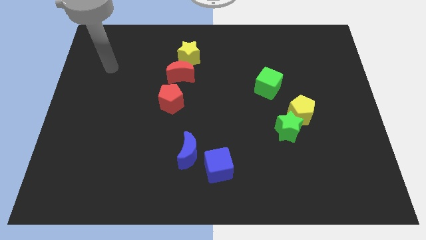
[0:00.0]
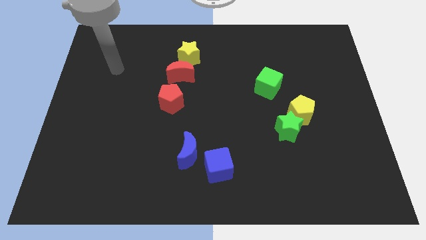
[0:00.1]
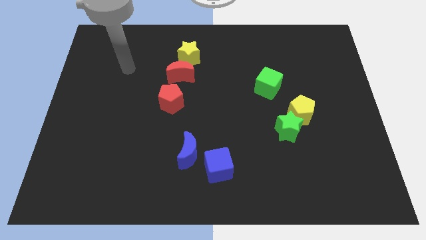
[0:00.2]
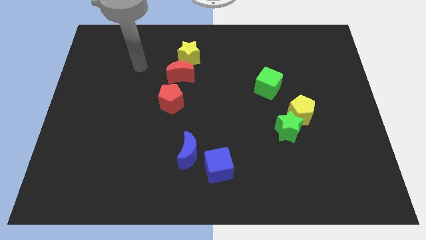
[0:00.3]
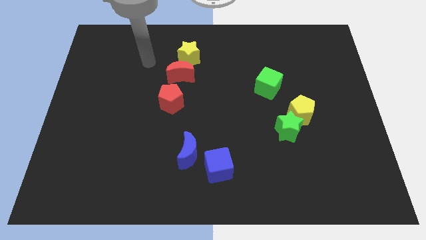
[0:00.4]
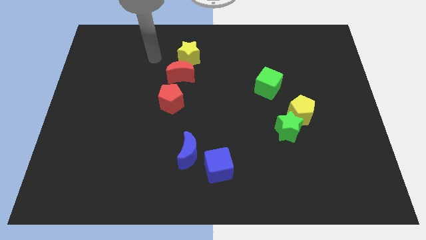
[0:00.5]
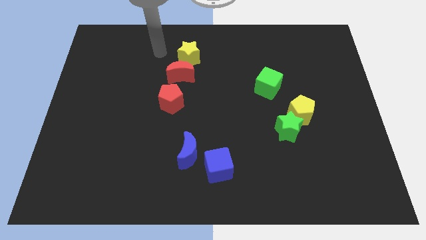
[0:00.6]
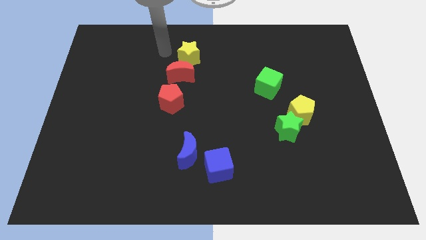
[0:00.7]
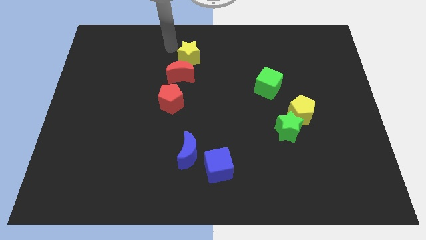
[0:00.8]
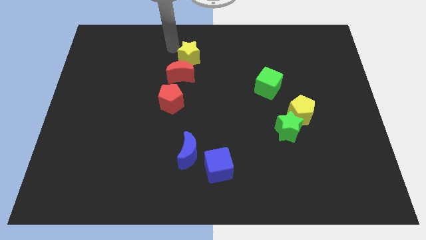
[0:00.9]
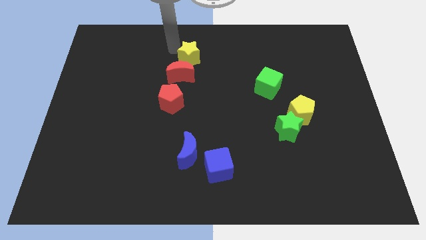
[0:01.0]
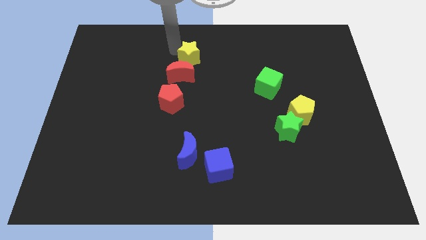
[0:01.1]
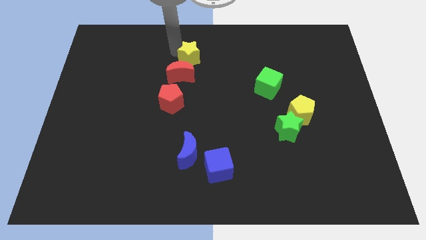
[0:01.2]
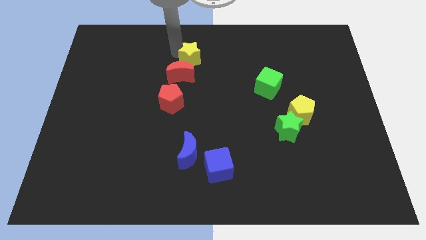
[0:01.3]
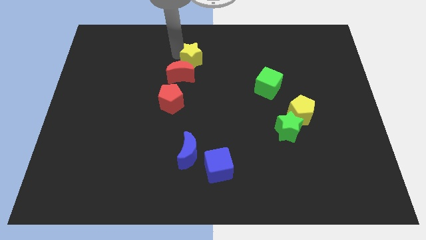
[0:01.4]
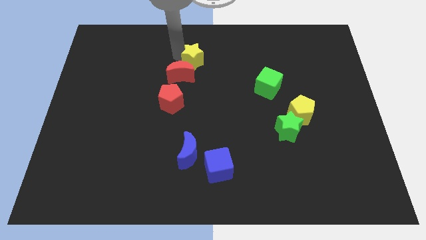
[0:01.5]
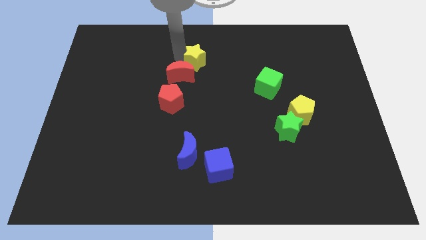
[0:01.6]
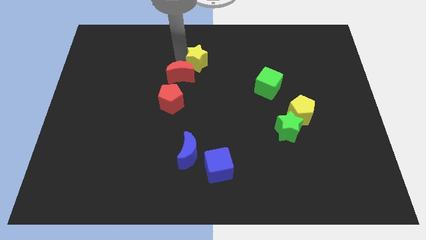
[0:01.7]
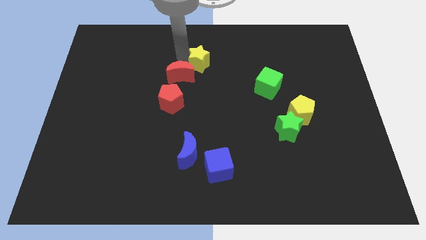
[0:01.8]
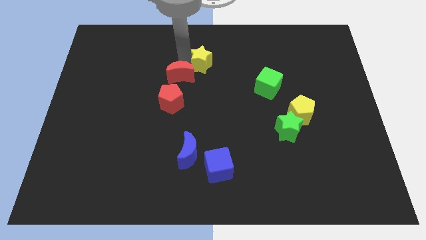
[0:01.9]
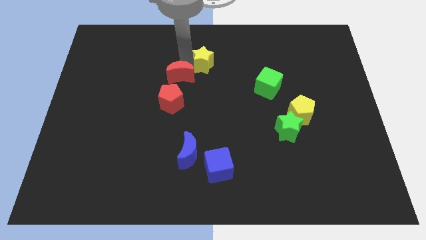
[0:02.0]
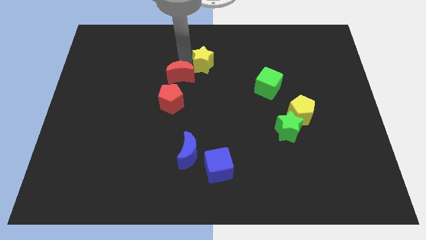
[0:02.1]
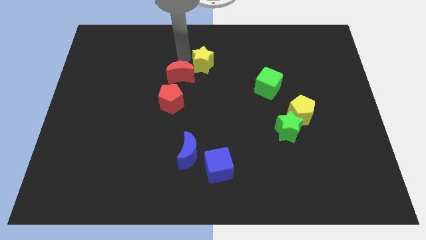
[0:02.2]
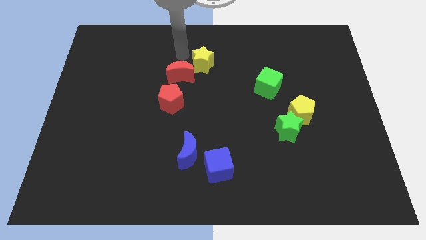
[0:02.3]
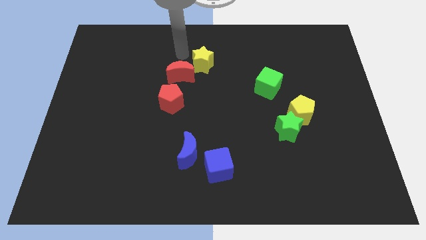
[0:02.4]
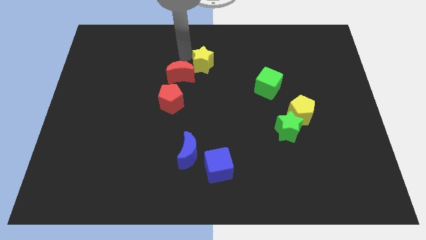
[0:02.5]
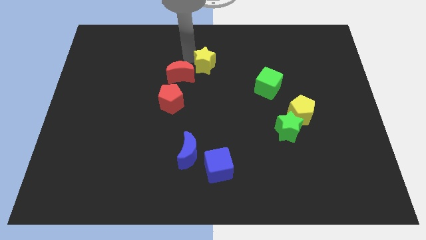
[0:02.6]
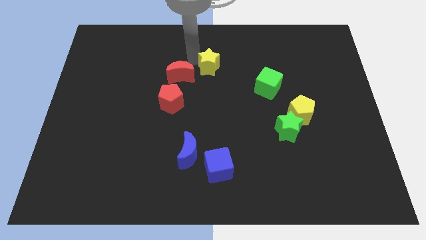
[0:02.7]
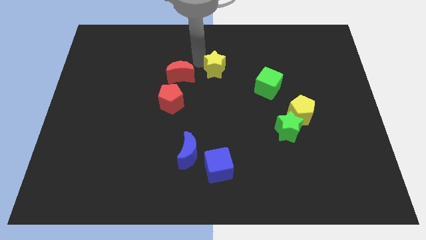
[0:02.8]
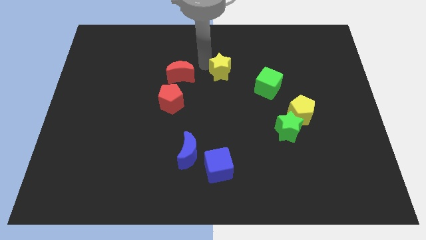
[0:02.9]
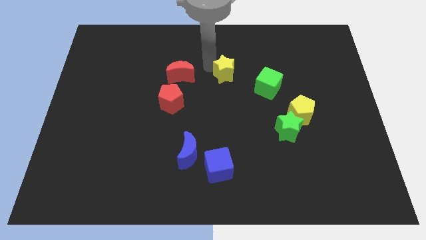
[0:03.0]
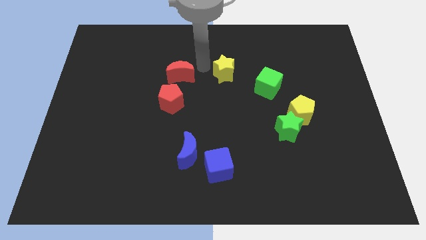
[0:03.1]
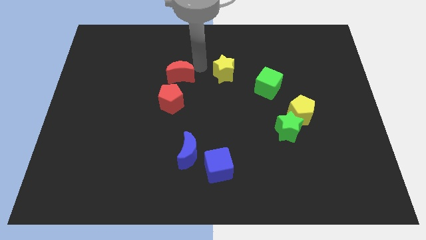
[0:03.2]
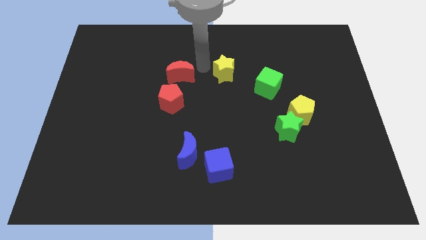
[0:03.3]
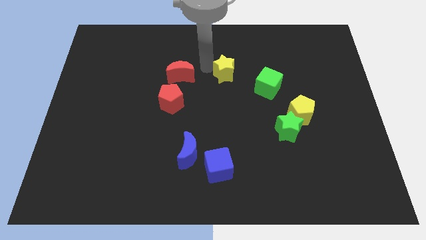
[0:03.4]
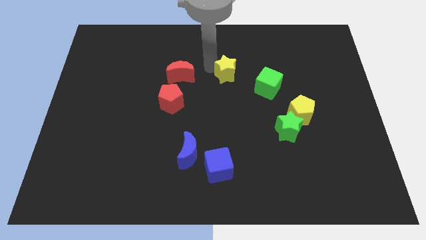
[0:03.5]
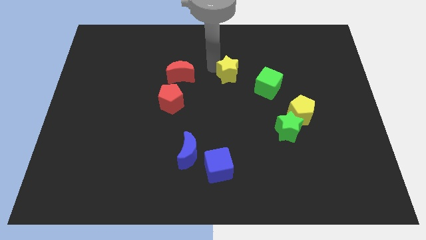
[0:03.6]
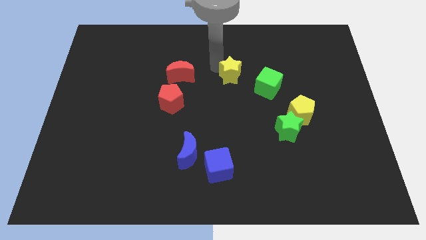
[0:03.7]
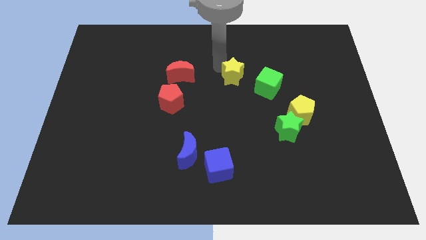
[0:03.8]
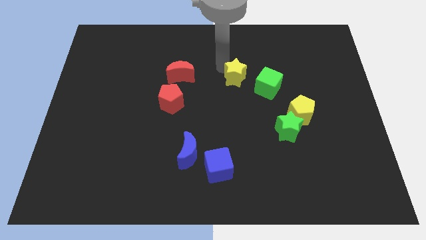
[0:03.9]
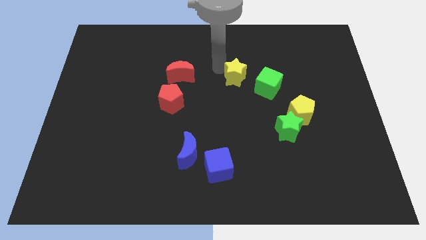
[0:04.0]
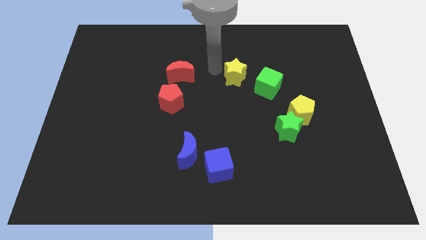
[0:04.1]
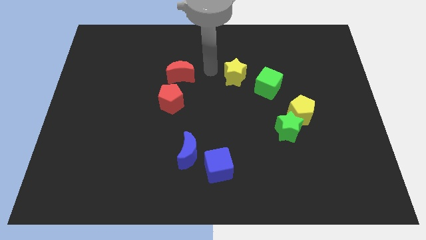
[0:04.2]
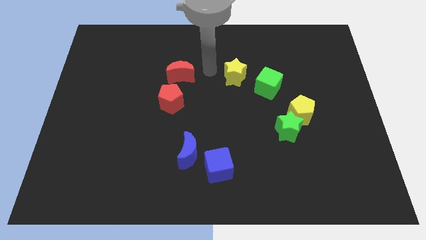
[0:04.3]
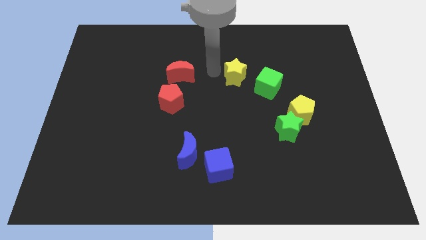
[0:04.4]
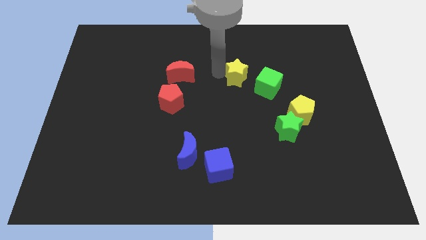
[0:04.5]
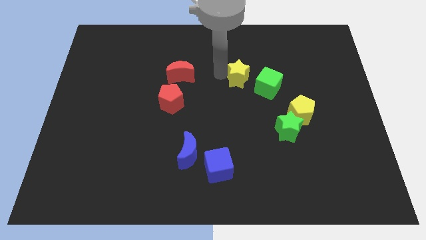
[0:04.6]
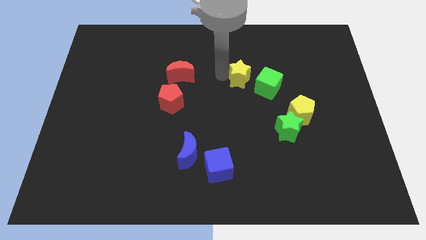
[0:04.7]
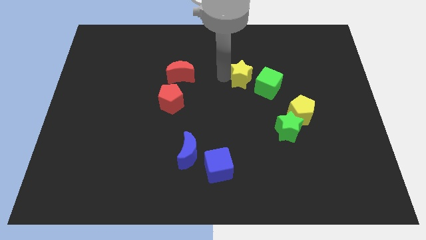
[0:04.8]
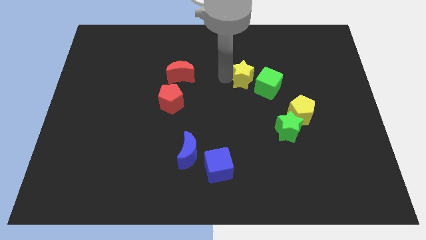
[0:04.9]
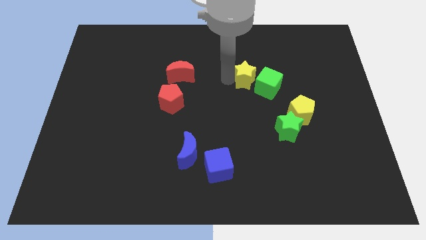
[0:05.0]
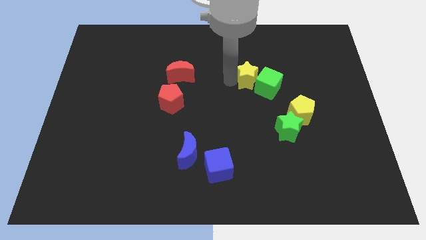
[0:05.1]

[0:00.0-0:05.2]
move the yellow star close to the green cube

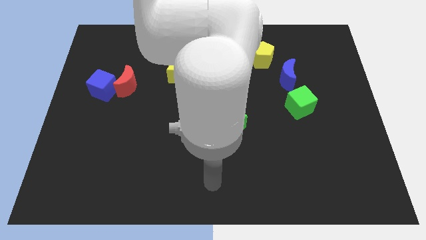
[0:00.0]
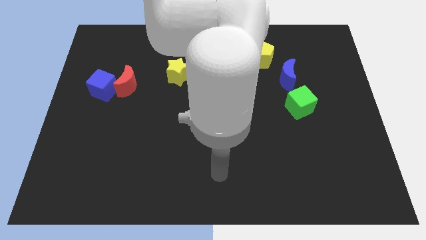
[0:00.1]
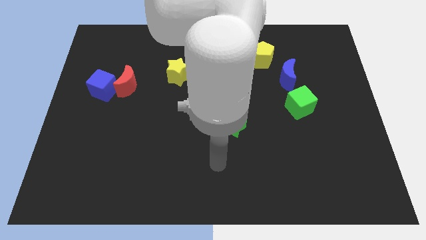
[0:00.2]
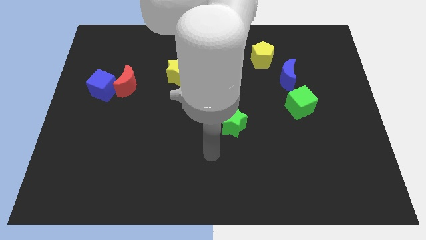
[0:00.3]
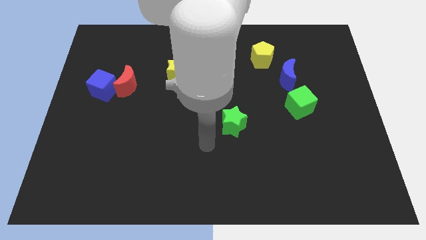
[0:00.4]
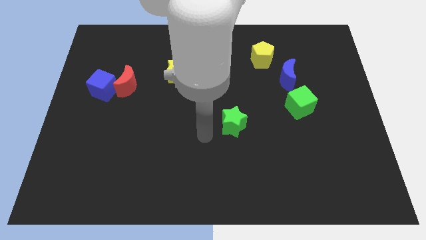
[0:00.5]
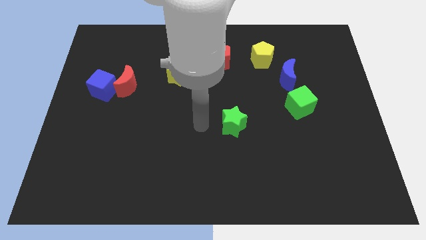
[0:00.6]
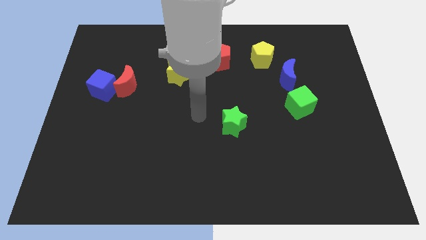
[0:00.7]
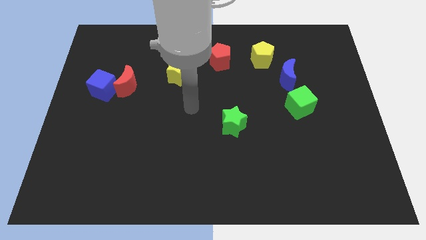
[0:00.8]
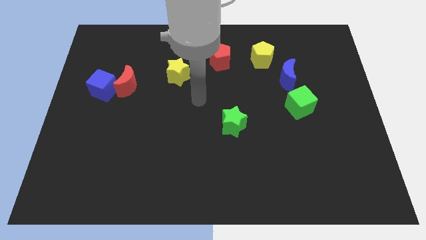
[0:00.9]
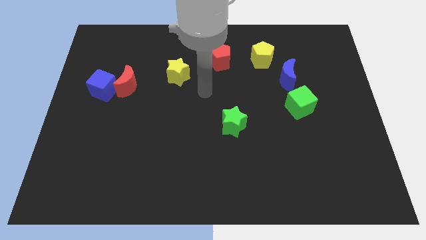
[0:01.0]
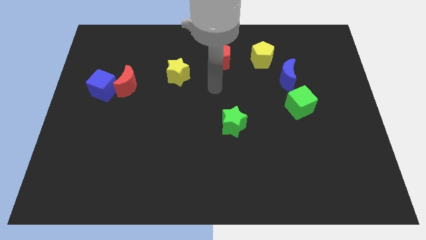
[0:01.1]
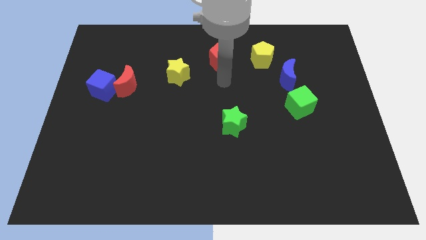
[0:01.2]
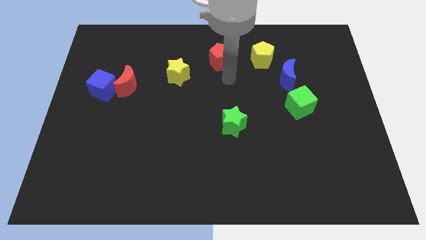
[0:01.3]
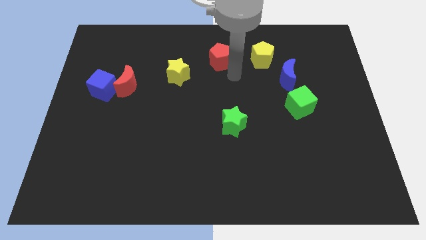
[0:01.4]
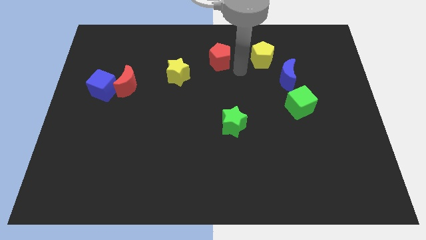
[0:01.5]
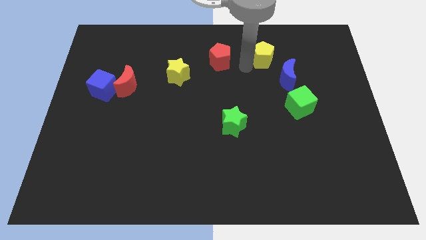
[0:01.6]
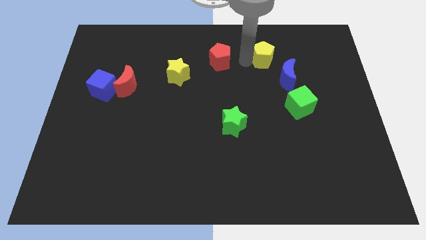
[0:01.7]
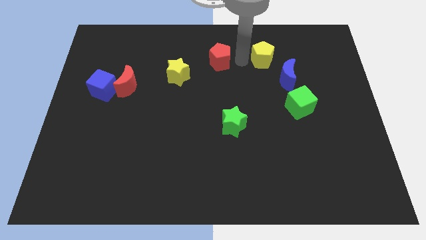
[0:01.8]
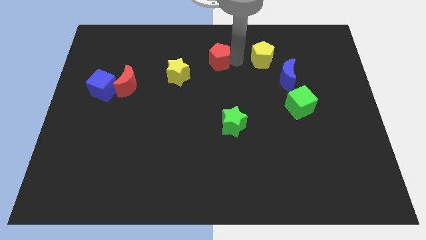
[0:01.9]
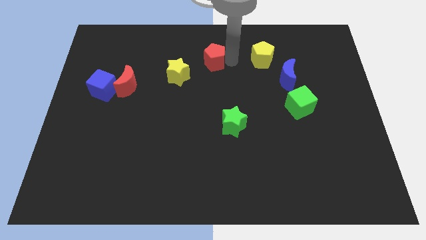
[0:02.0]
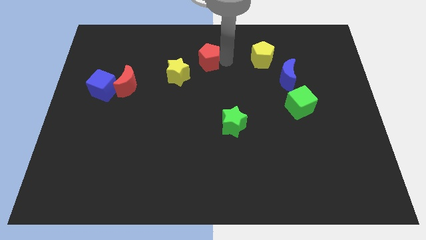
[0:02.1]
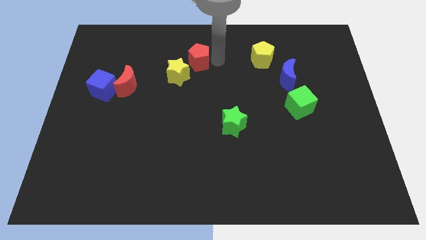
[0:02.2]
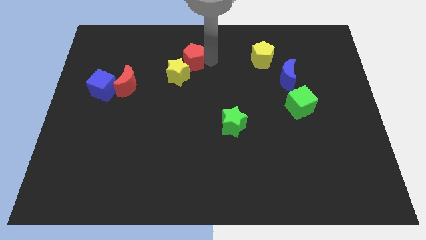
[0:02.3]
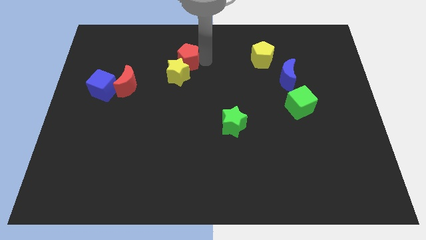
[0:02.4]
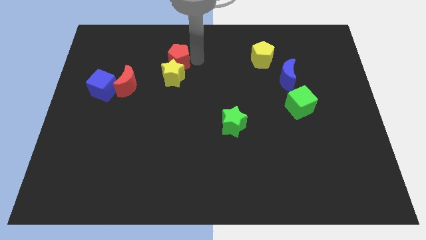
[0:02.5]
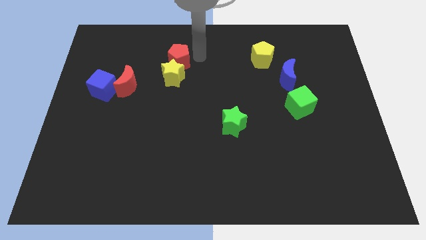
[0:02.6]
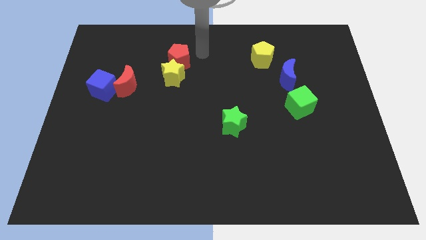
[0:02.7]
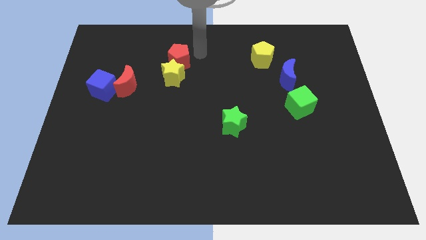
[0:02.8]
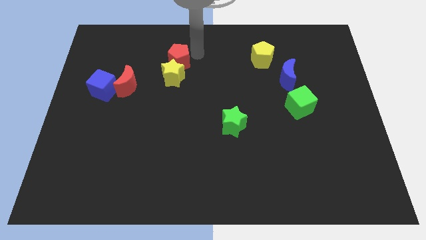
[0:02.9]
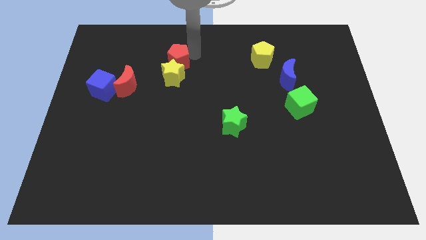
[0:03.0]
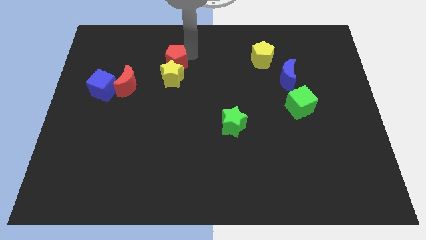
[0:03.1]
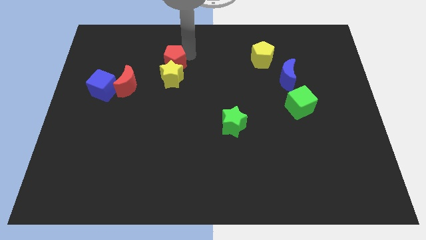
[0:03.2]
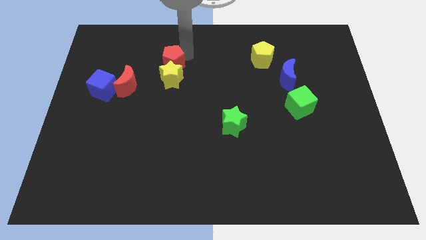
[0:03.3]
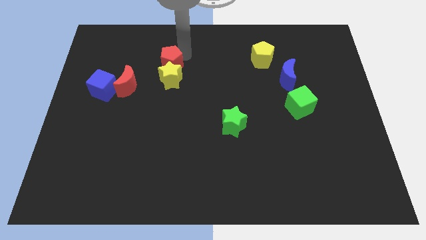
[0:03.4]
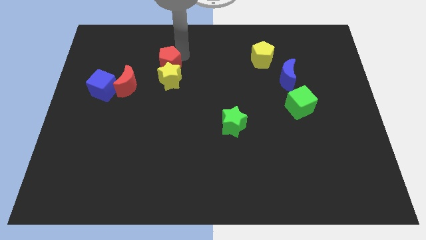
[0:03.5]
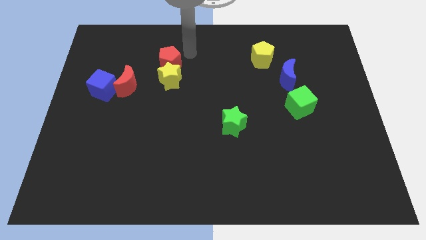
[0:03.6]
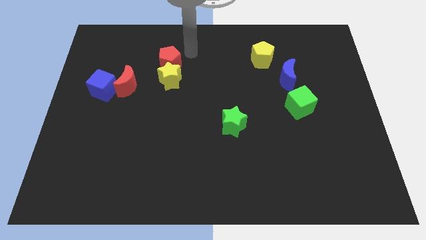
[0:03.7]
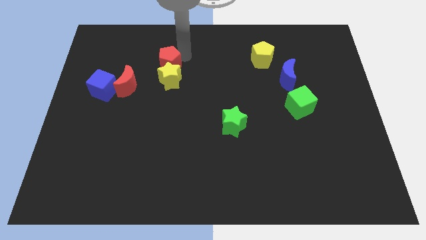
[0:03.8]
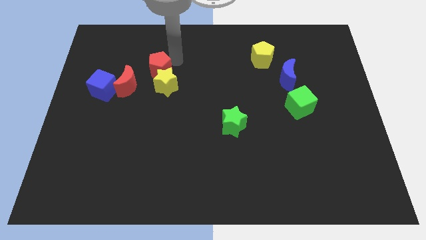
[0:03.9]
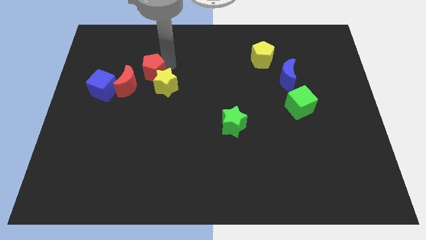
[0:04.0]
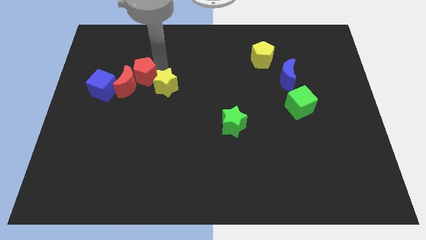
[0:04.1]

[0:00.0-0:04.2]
move the red pentagon next to the red moon
